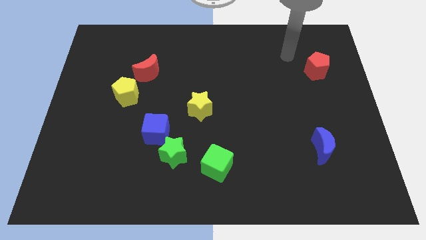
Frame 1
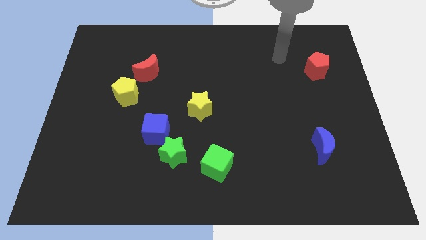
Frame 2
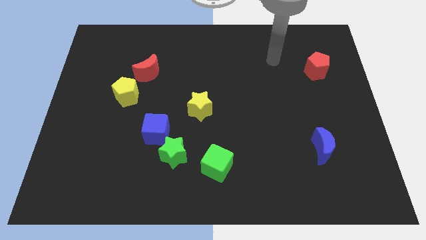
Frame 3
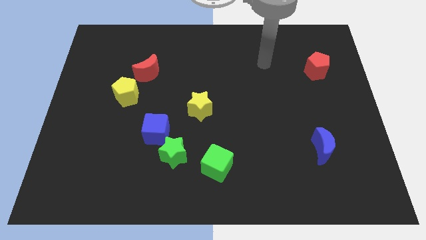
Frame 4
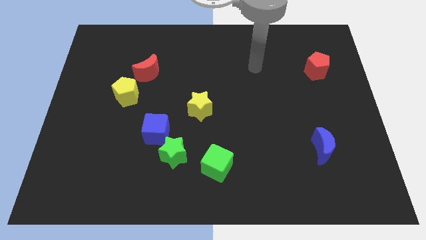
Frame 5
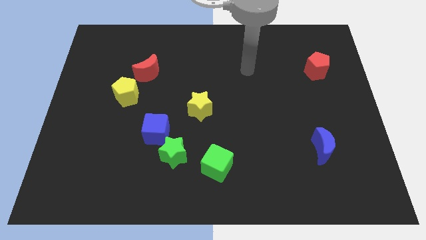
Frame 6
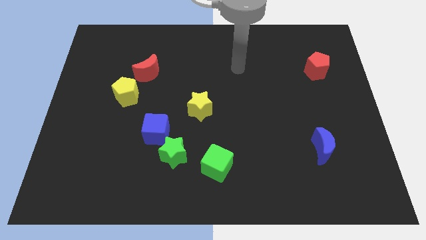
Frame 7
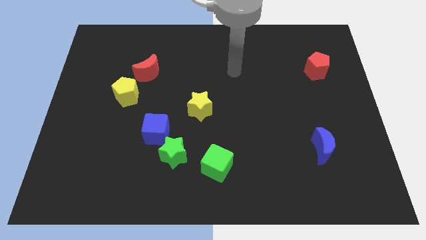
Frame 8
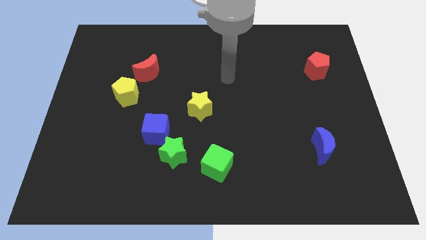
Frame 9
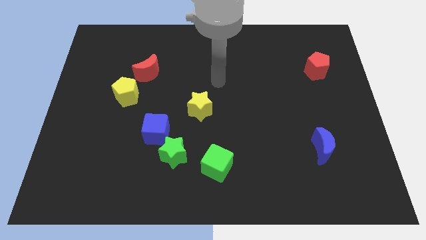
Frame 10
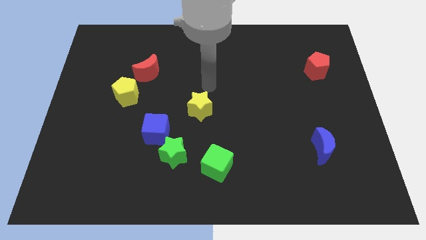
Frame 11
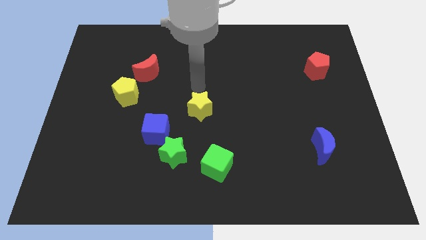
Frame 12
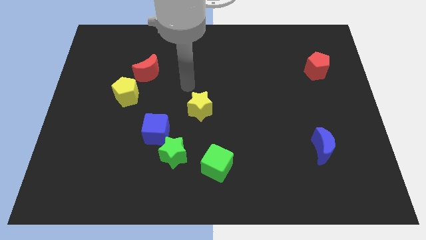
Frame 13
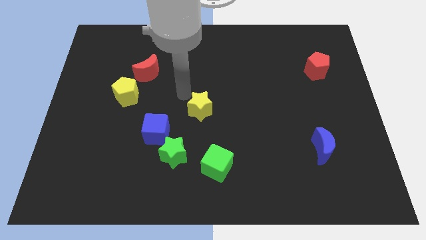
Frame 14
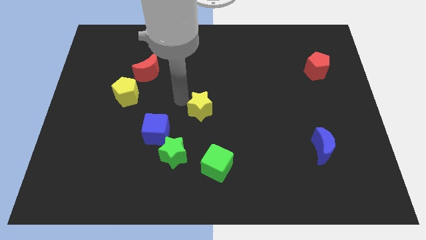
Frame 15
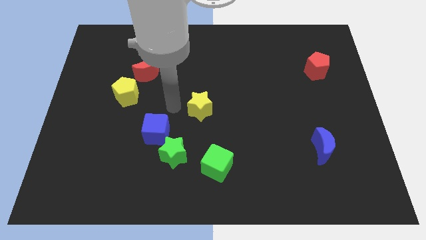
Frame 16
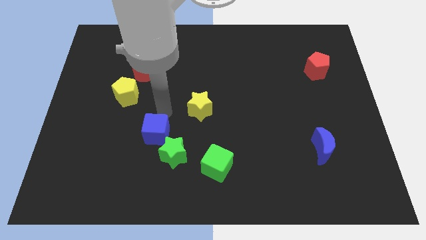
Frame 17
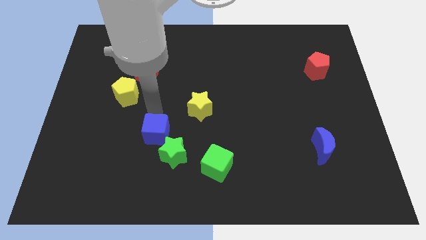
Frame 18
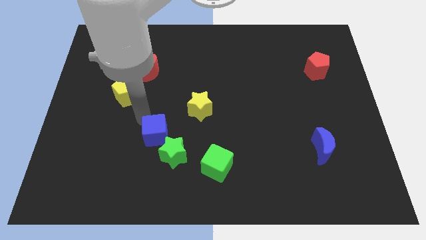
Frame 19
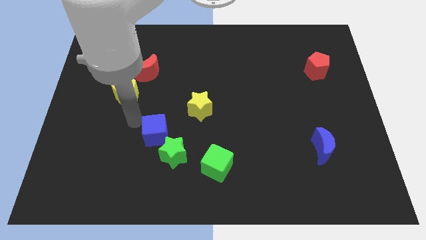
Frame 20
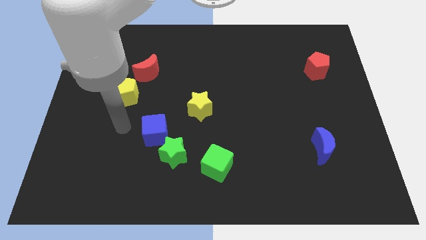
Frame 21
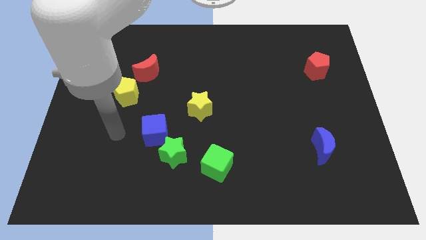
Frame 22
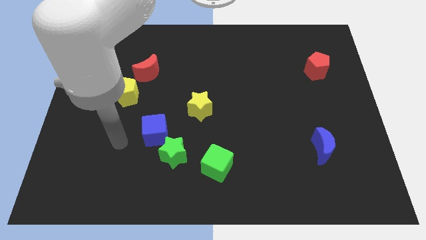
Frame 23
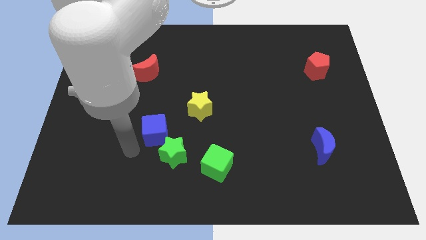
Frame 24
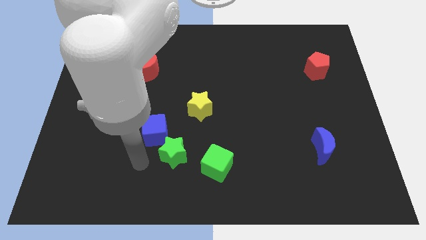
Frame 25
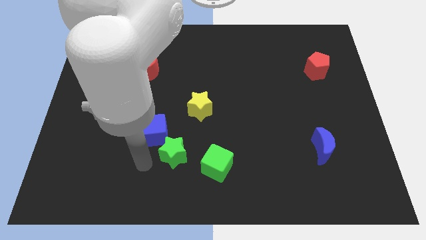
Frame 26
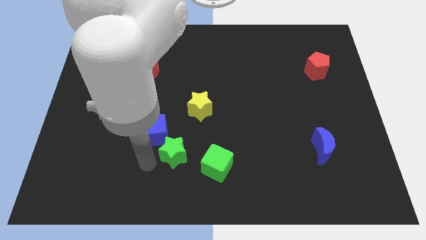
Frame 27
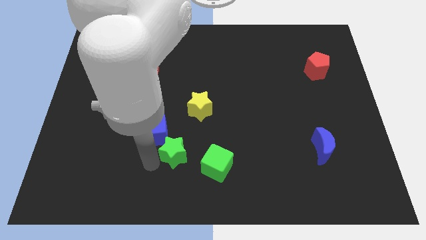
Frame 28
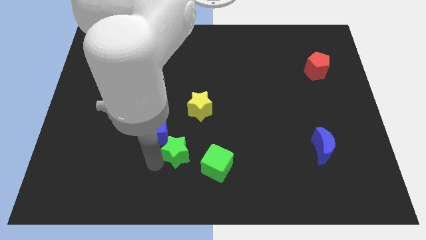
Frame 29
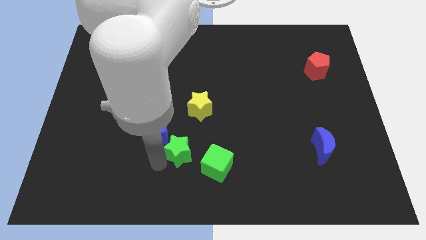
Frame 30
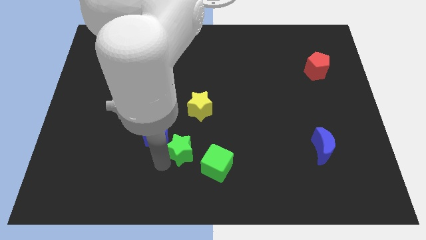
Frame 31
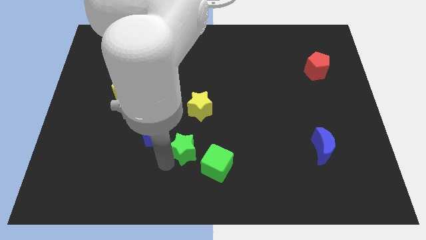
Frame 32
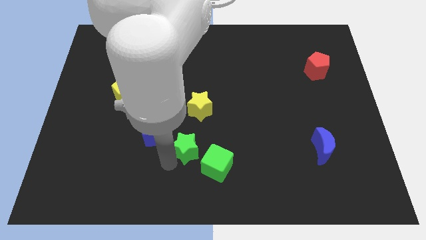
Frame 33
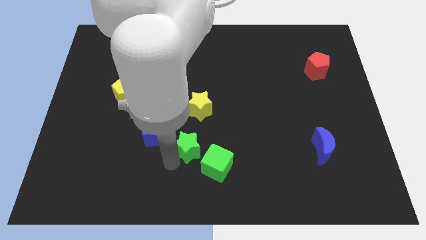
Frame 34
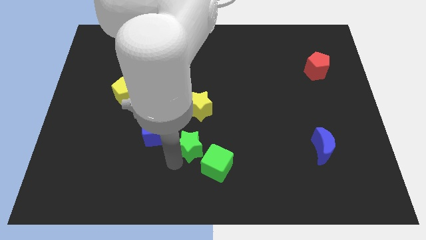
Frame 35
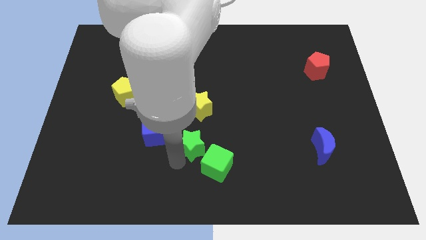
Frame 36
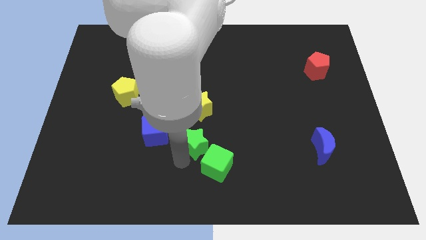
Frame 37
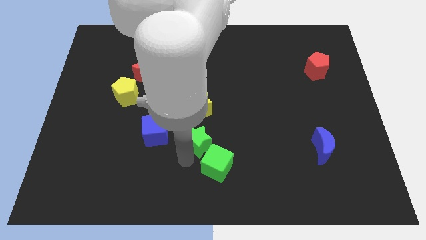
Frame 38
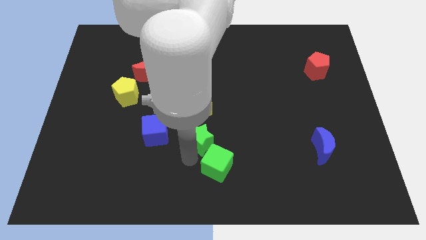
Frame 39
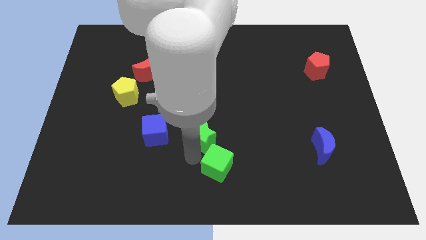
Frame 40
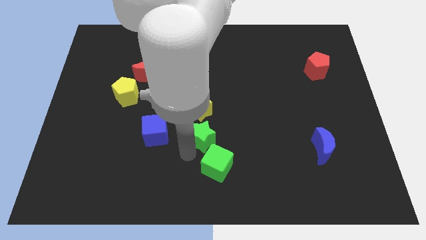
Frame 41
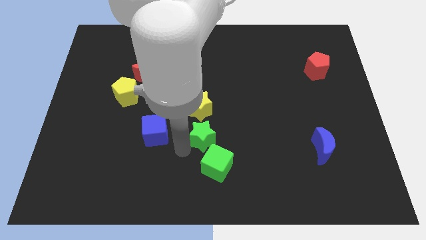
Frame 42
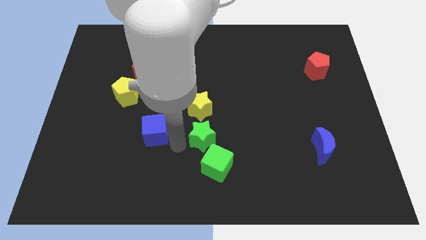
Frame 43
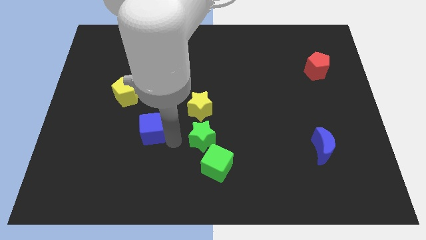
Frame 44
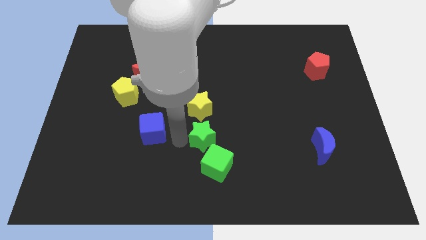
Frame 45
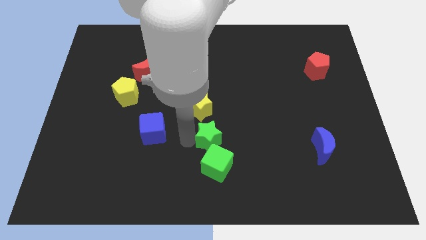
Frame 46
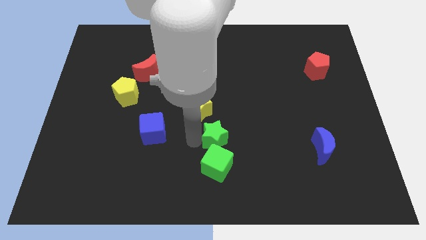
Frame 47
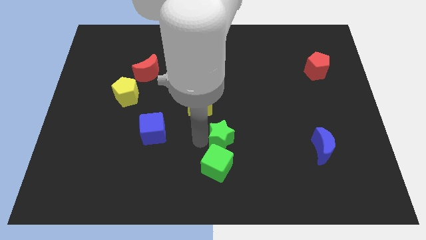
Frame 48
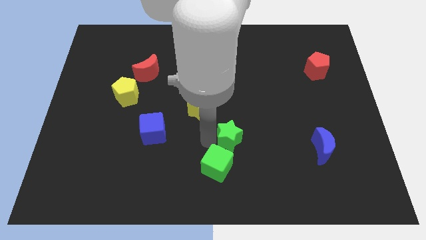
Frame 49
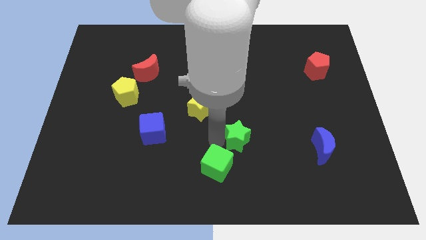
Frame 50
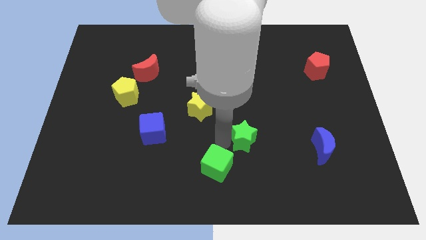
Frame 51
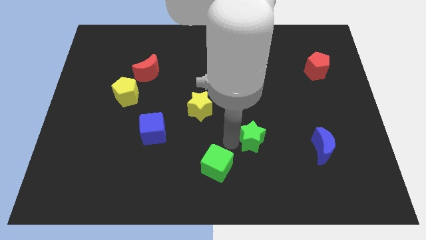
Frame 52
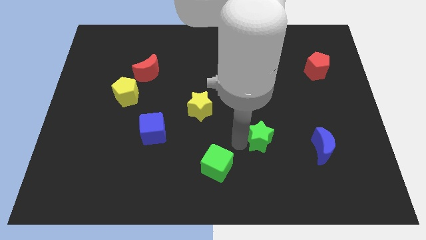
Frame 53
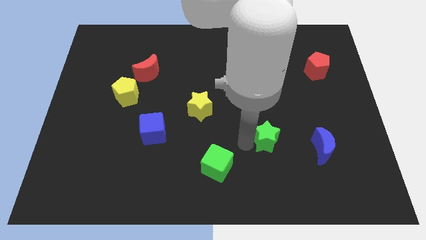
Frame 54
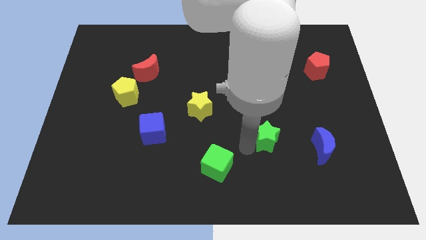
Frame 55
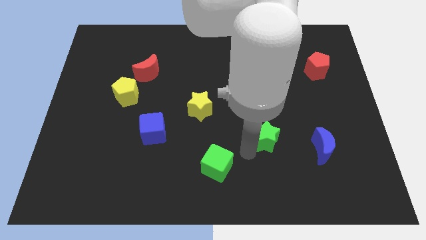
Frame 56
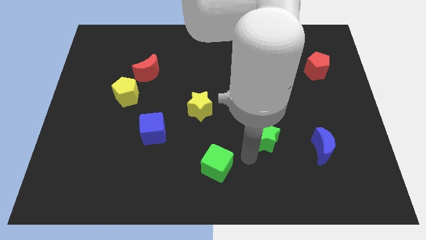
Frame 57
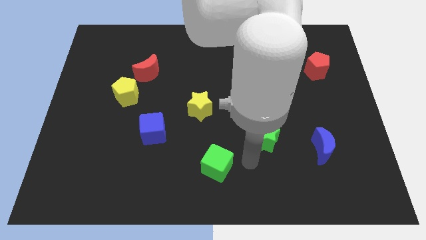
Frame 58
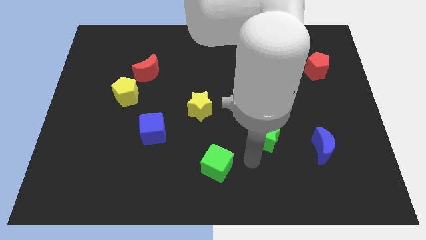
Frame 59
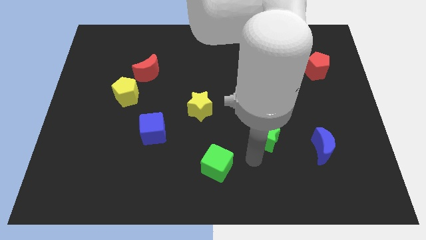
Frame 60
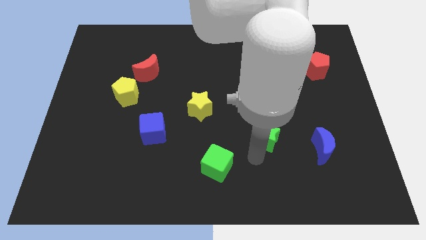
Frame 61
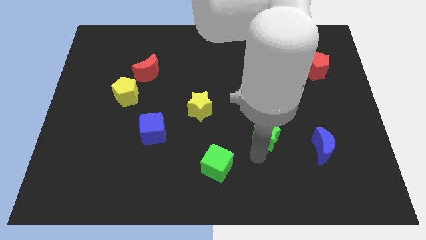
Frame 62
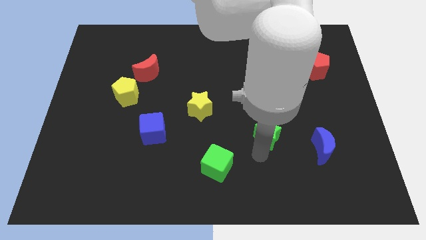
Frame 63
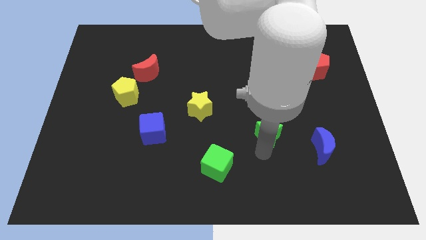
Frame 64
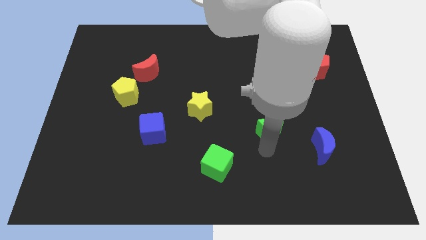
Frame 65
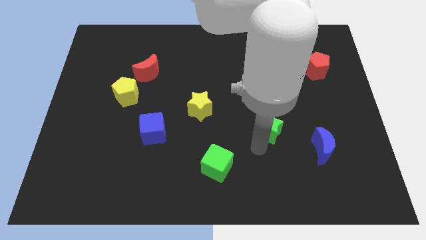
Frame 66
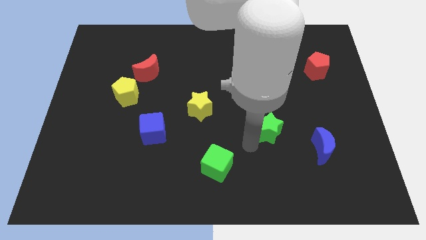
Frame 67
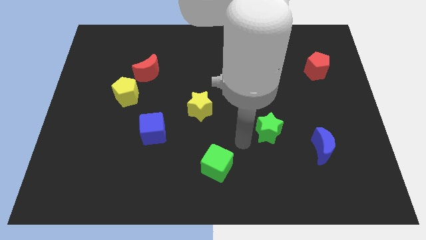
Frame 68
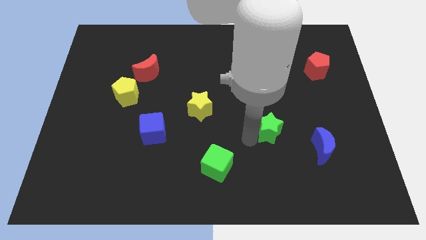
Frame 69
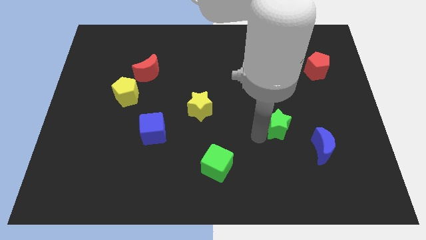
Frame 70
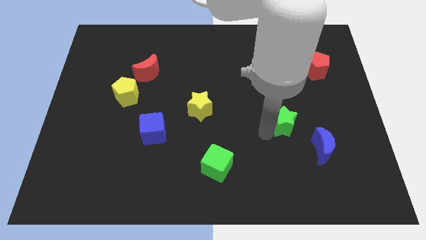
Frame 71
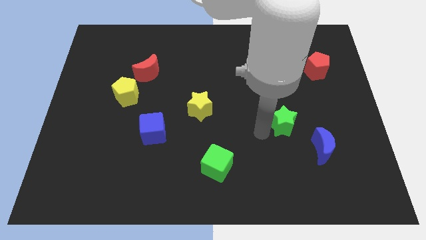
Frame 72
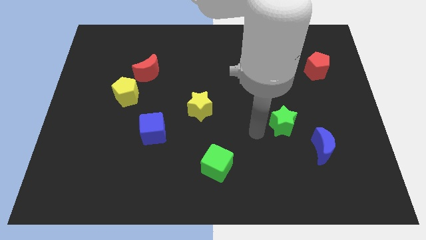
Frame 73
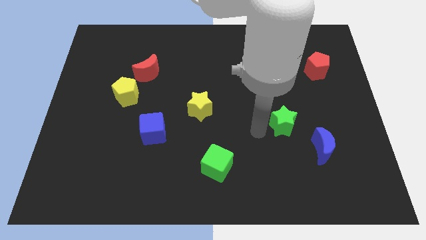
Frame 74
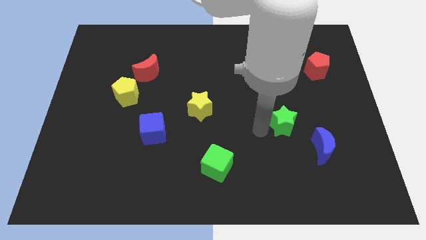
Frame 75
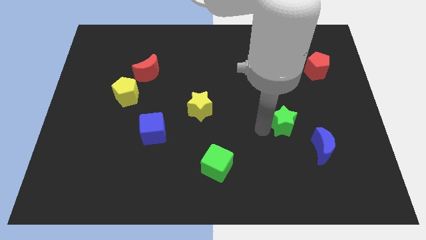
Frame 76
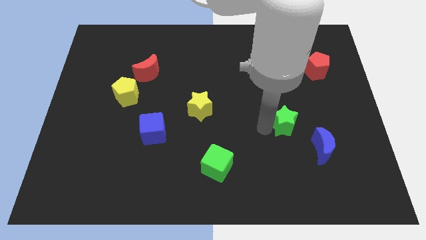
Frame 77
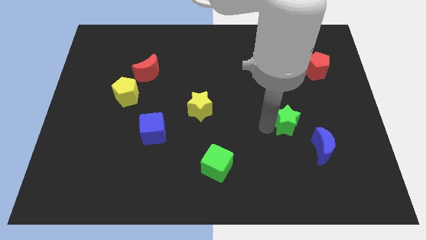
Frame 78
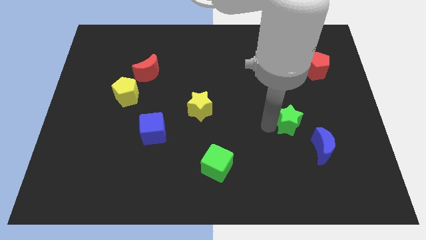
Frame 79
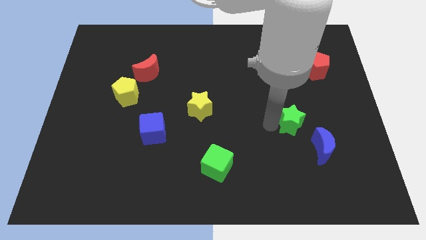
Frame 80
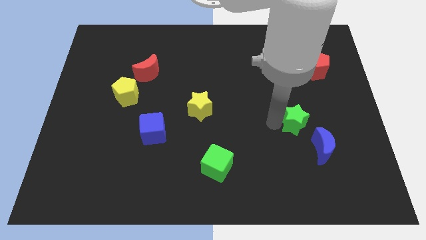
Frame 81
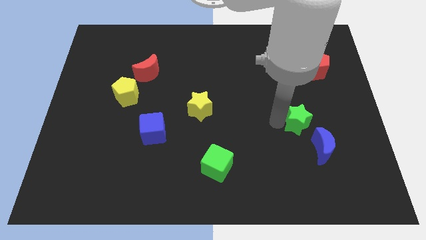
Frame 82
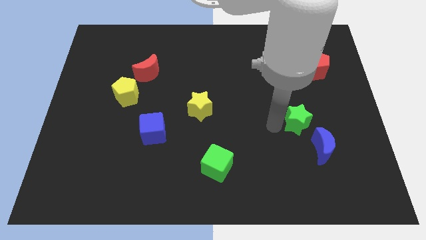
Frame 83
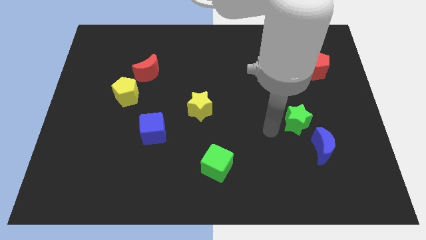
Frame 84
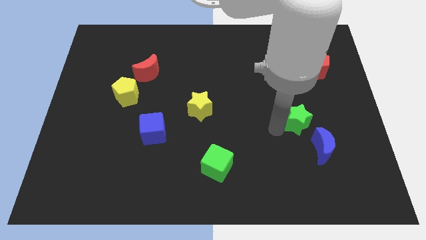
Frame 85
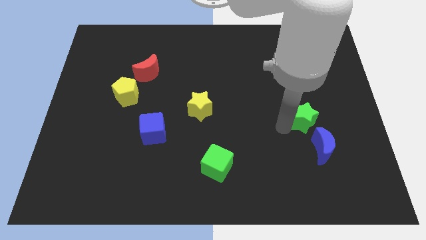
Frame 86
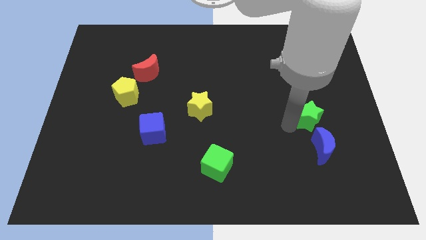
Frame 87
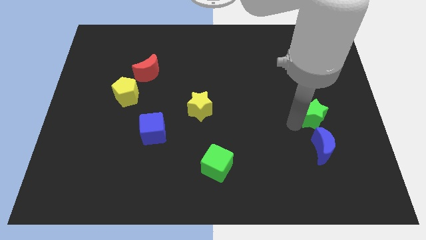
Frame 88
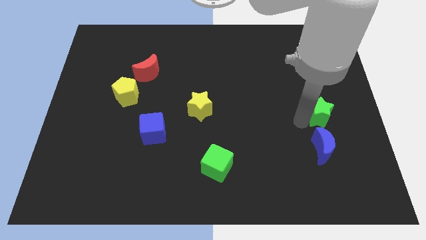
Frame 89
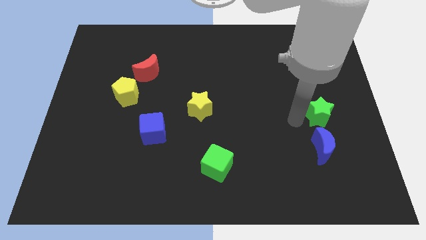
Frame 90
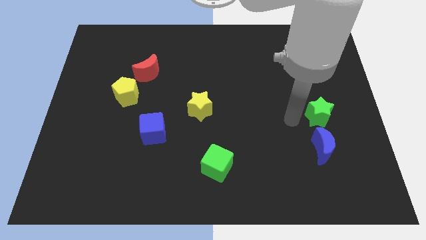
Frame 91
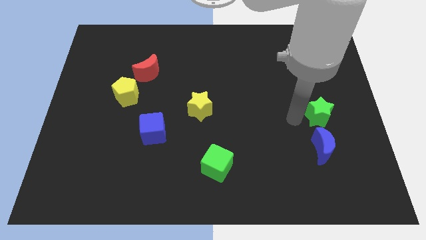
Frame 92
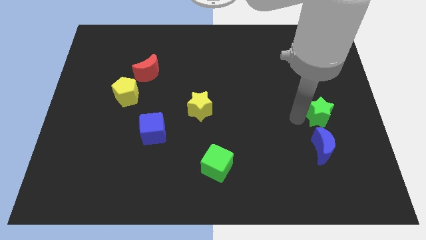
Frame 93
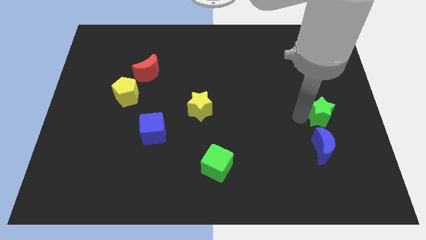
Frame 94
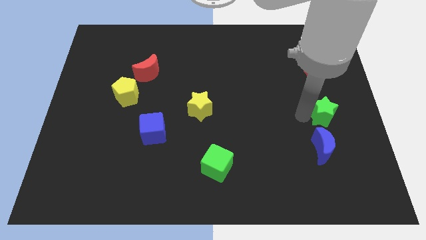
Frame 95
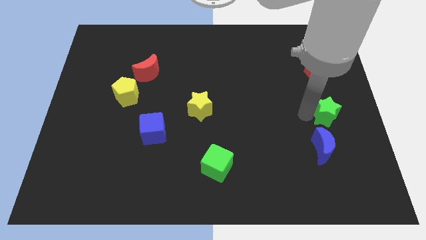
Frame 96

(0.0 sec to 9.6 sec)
push the green star to the center right
